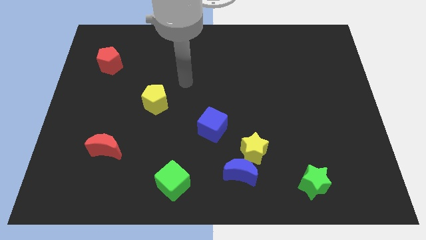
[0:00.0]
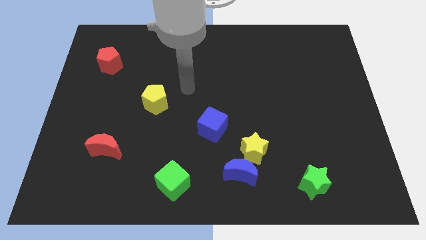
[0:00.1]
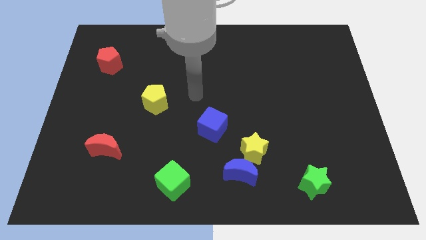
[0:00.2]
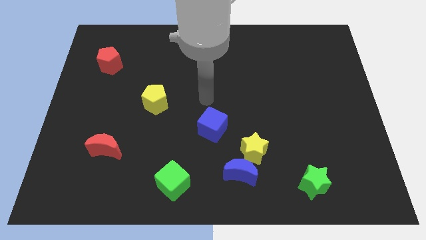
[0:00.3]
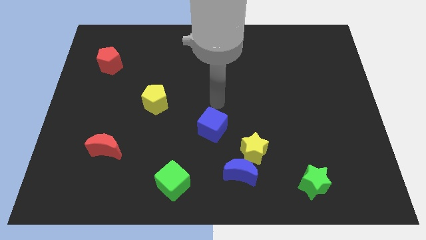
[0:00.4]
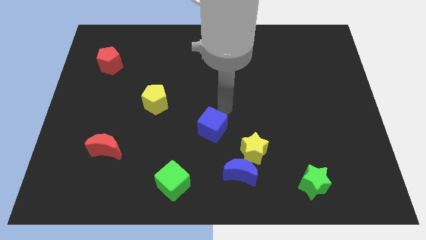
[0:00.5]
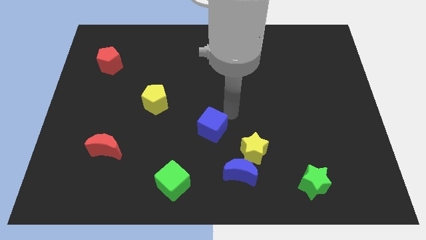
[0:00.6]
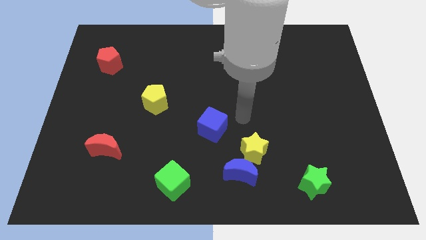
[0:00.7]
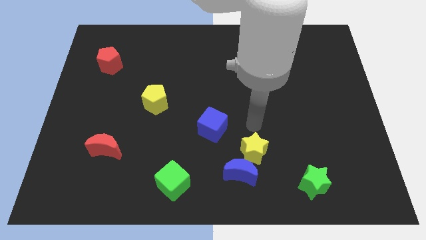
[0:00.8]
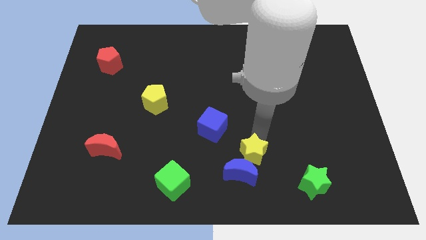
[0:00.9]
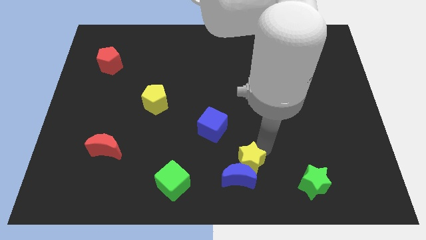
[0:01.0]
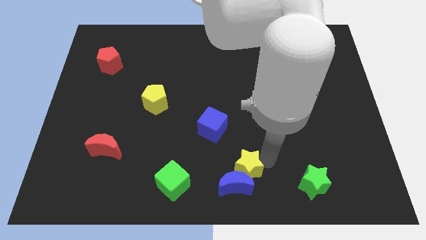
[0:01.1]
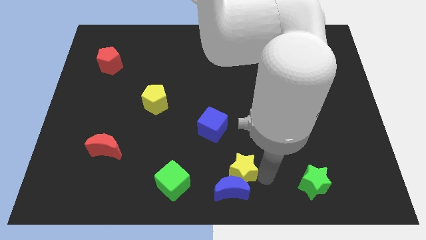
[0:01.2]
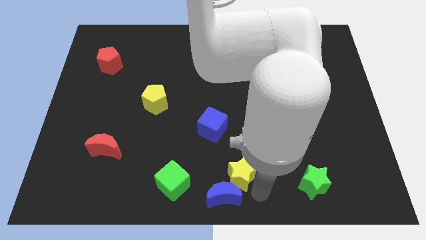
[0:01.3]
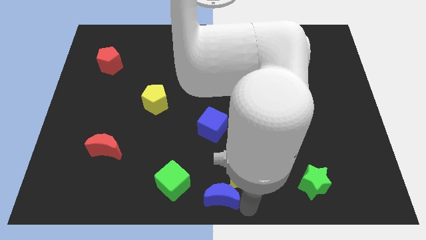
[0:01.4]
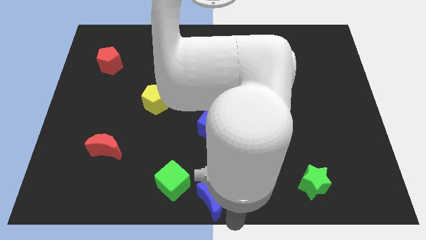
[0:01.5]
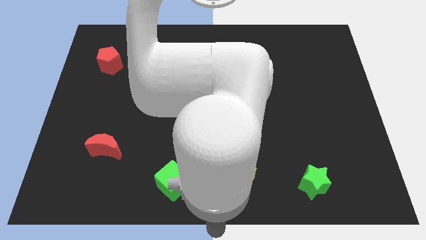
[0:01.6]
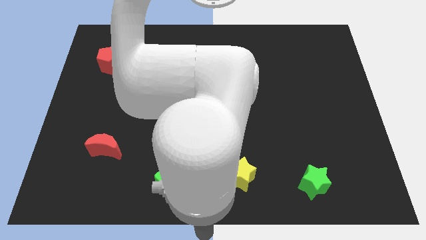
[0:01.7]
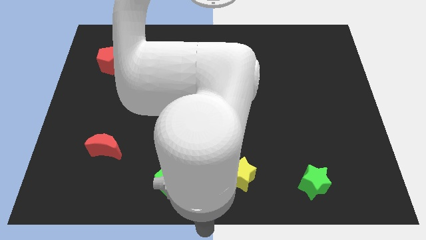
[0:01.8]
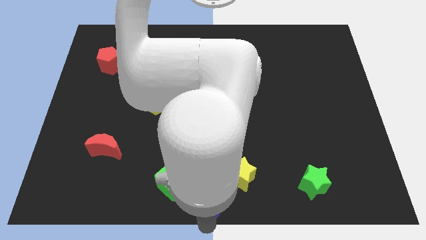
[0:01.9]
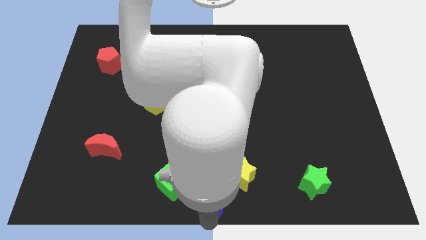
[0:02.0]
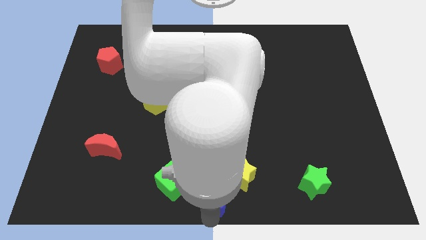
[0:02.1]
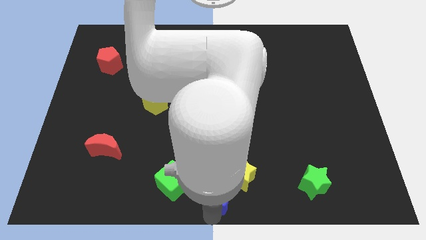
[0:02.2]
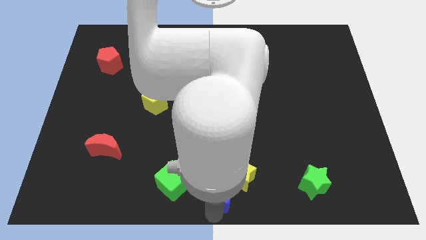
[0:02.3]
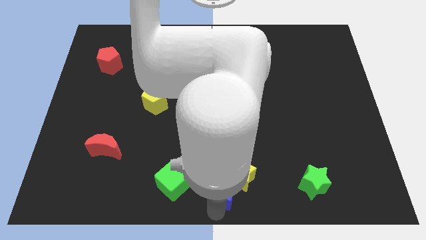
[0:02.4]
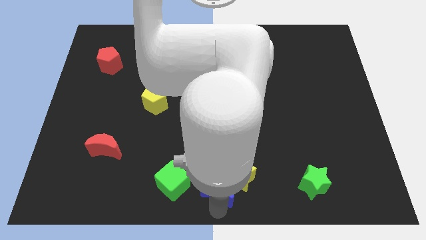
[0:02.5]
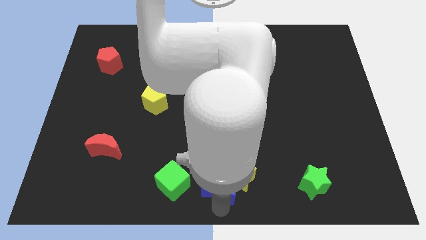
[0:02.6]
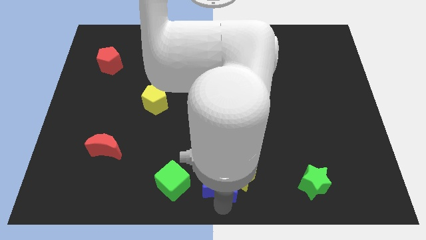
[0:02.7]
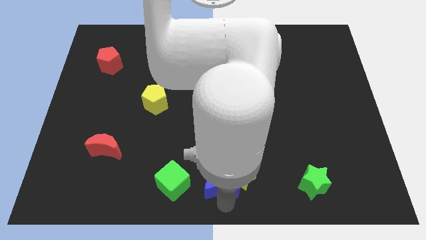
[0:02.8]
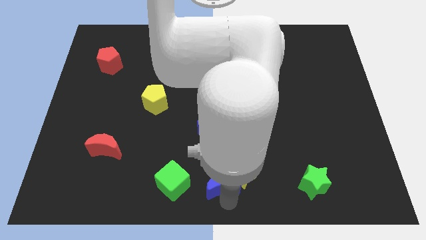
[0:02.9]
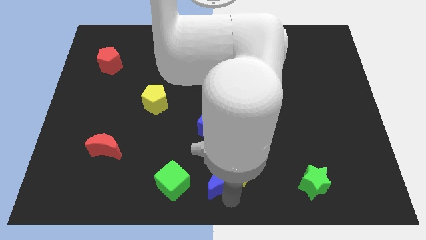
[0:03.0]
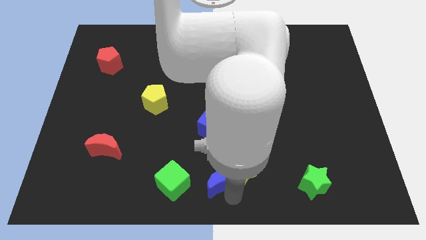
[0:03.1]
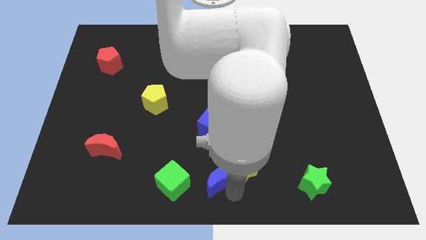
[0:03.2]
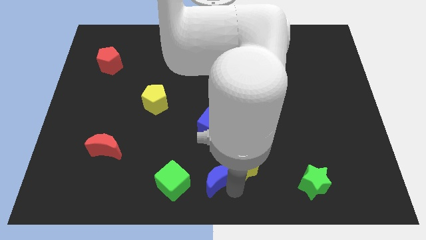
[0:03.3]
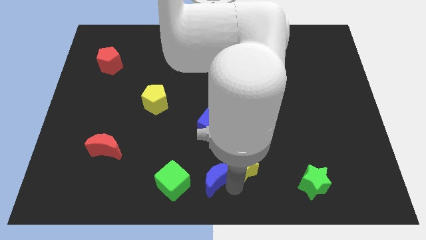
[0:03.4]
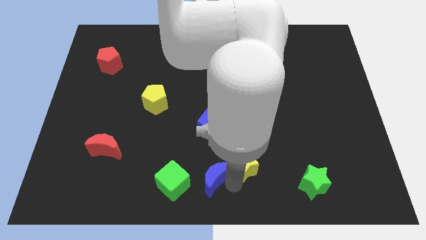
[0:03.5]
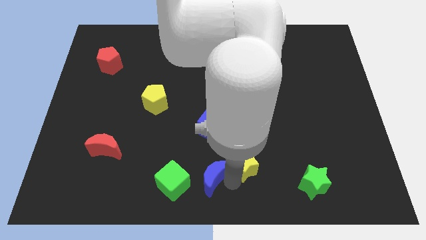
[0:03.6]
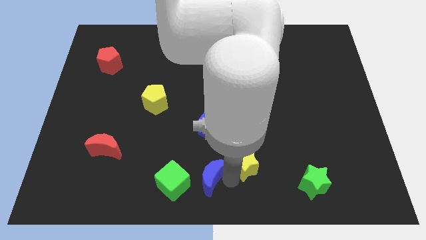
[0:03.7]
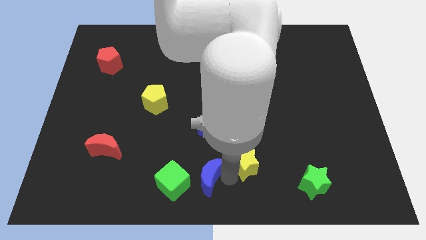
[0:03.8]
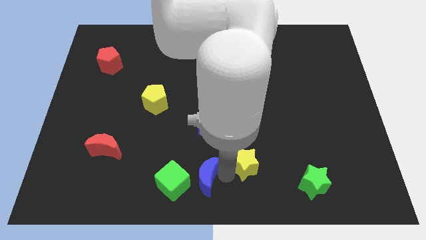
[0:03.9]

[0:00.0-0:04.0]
slightly slide the blue moon to the left

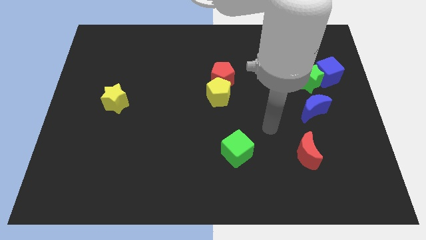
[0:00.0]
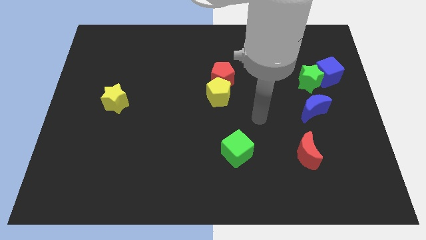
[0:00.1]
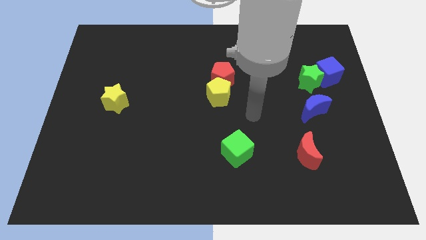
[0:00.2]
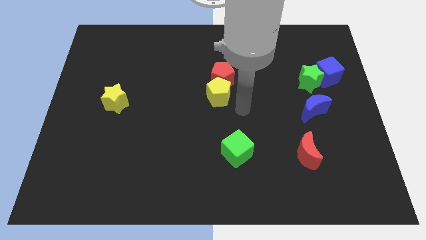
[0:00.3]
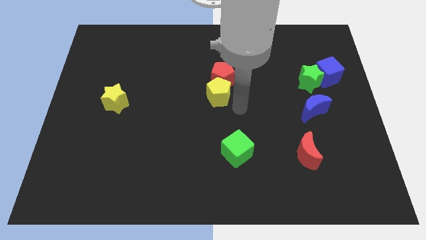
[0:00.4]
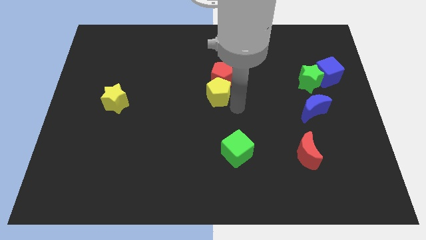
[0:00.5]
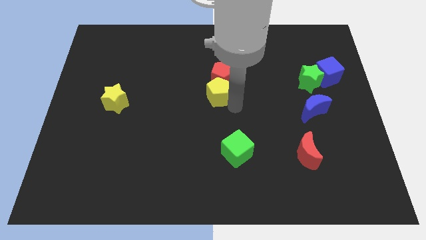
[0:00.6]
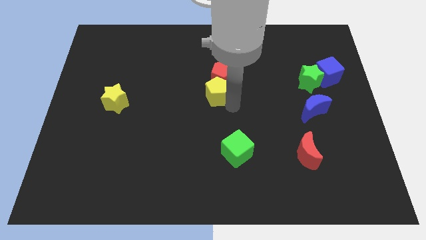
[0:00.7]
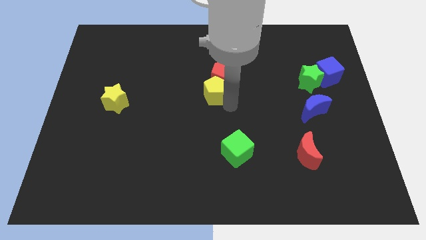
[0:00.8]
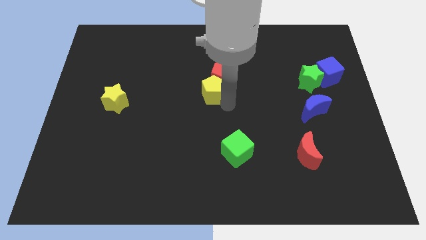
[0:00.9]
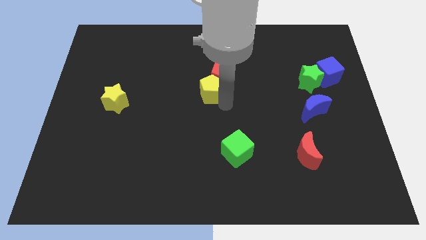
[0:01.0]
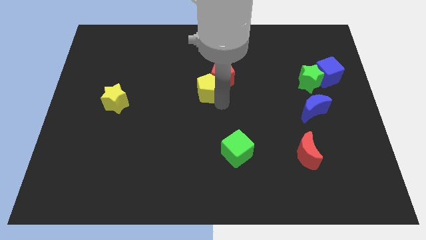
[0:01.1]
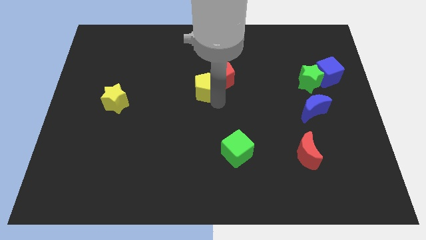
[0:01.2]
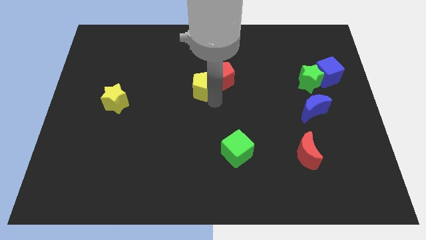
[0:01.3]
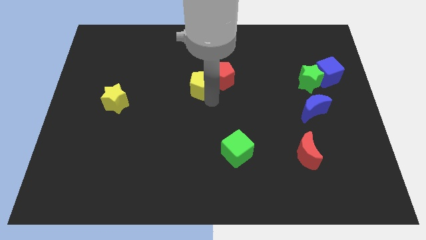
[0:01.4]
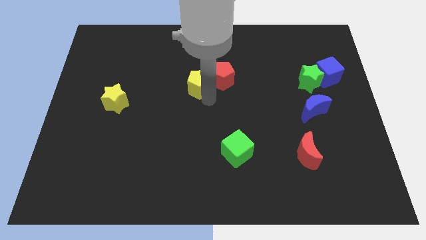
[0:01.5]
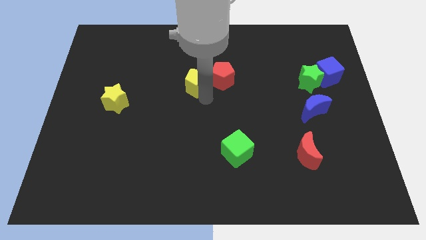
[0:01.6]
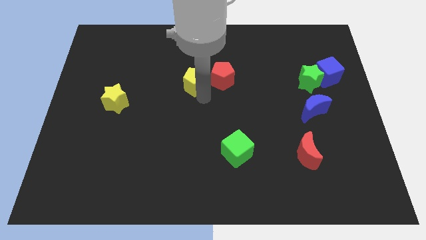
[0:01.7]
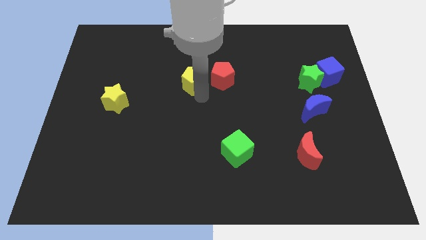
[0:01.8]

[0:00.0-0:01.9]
slightly slide the yellow pentagon diagonally up and to the left

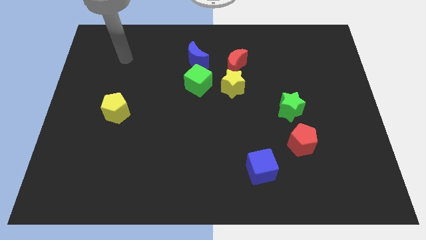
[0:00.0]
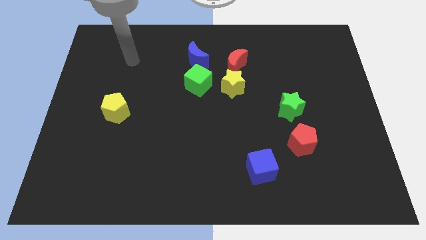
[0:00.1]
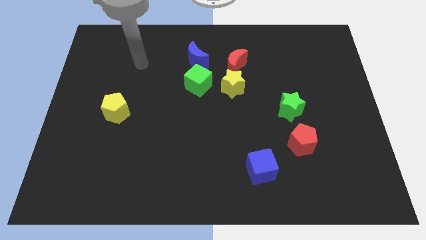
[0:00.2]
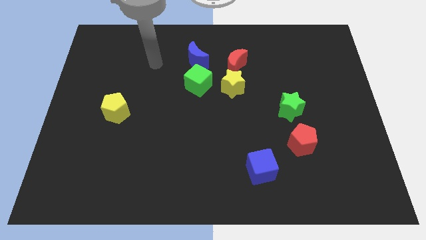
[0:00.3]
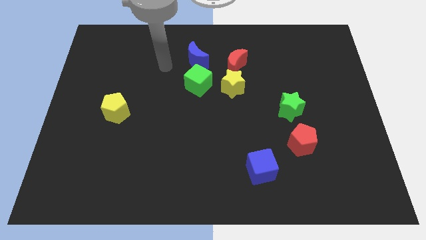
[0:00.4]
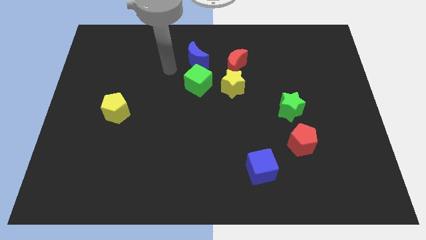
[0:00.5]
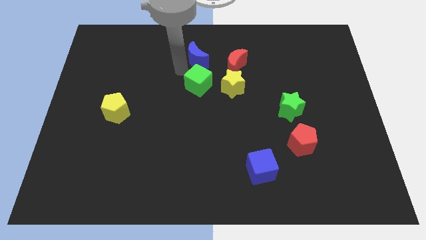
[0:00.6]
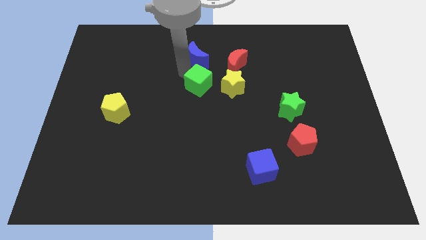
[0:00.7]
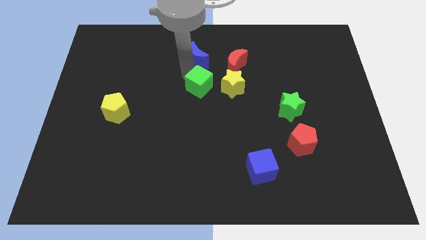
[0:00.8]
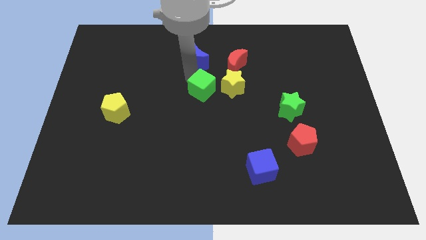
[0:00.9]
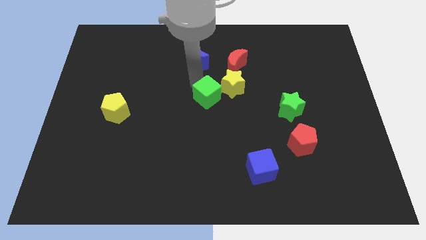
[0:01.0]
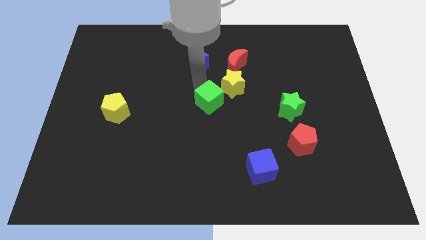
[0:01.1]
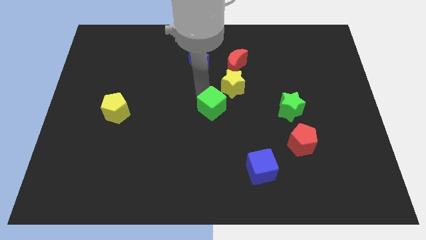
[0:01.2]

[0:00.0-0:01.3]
slightly move the green cube diagonally downwards and to the right

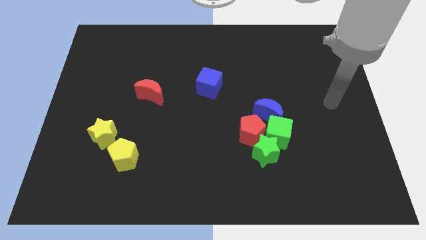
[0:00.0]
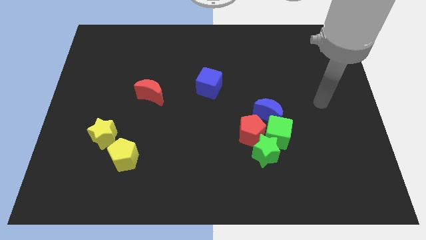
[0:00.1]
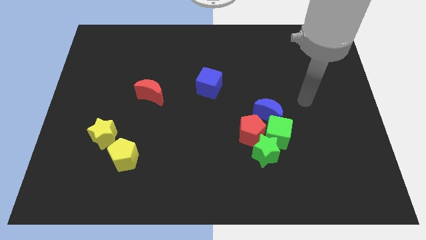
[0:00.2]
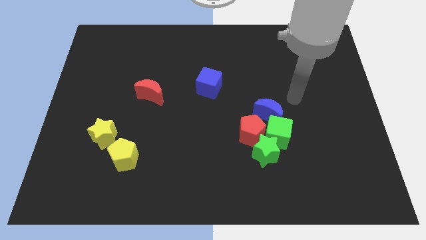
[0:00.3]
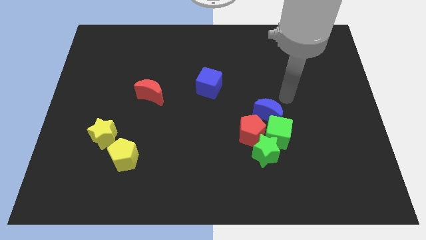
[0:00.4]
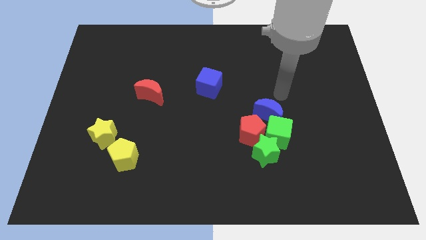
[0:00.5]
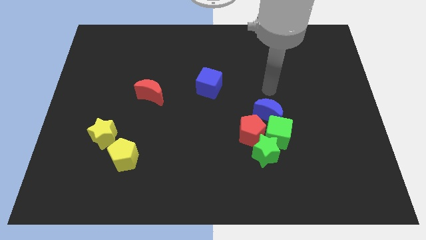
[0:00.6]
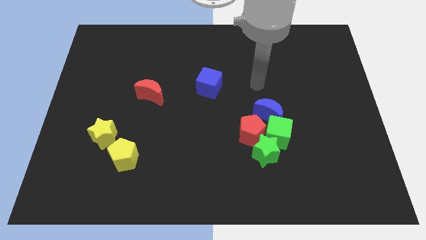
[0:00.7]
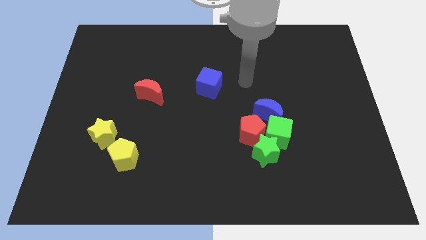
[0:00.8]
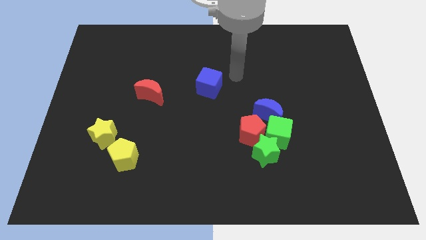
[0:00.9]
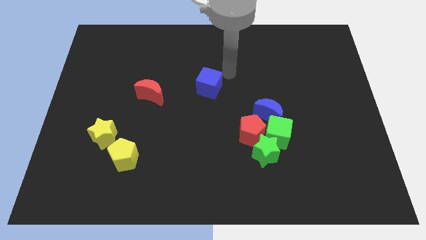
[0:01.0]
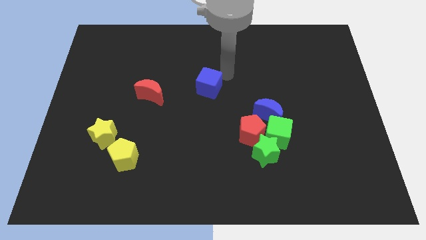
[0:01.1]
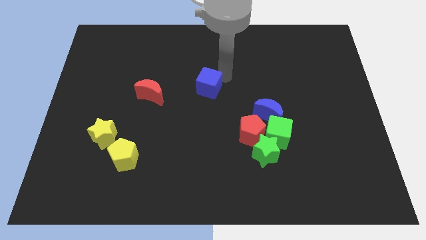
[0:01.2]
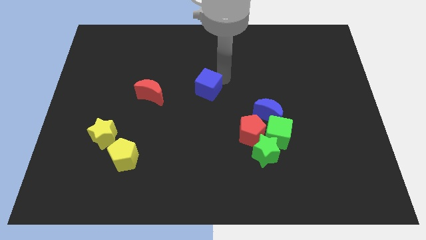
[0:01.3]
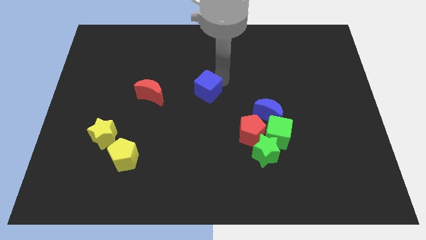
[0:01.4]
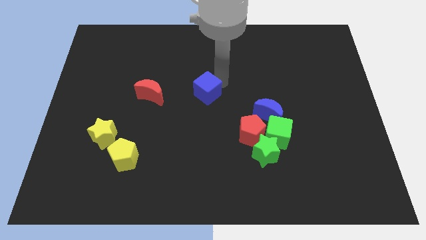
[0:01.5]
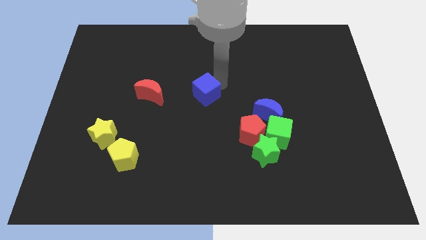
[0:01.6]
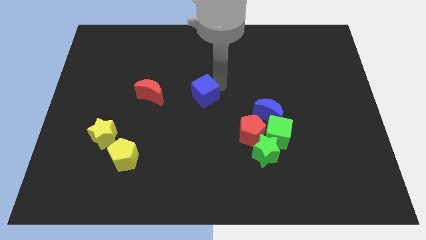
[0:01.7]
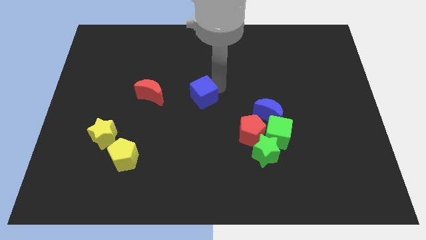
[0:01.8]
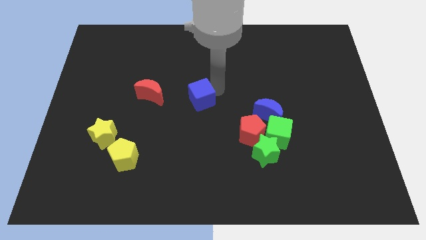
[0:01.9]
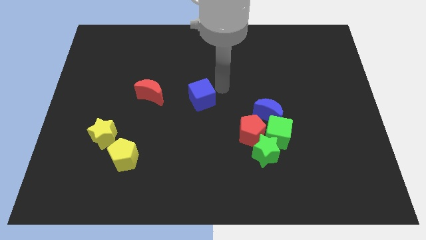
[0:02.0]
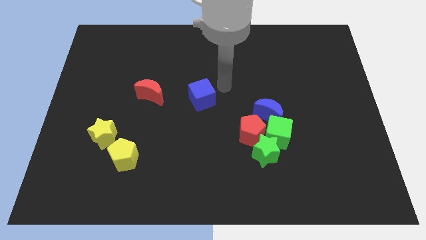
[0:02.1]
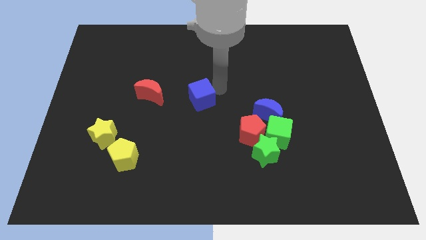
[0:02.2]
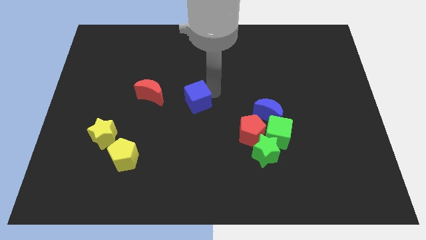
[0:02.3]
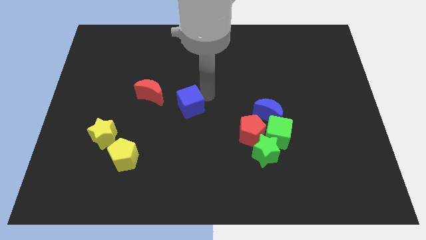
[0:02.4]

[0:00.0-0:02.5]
slightly push the blue cube down and left
